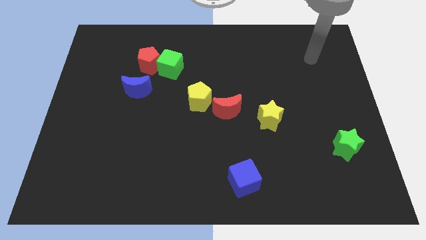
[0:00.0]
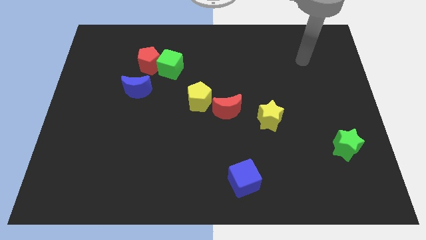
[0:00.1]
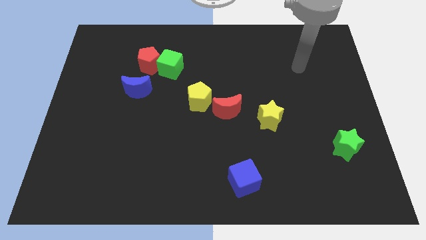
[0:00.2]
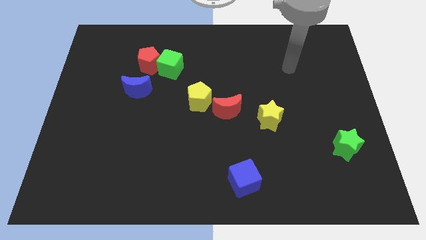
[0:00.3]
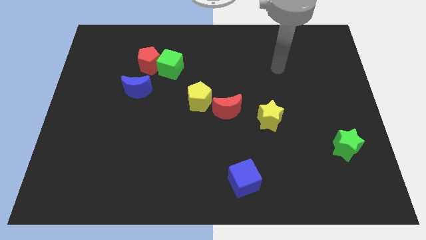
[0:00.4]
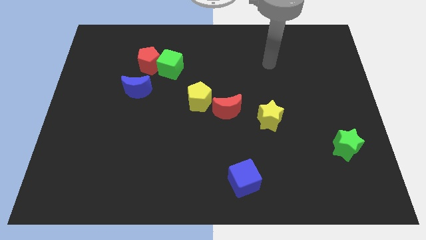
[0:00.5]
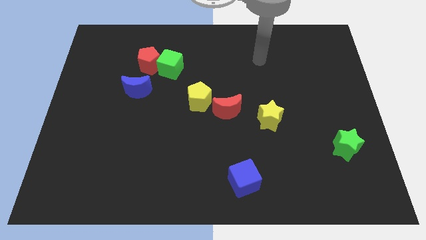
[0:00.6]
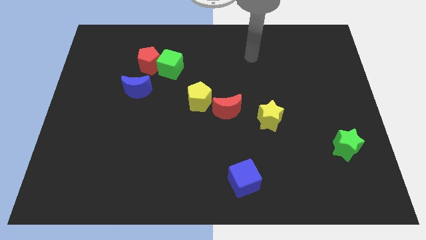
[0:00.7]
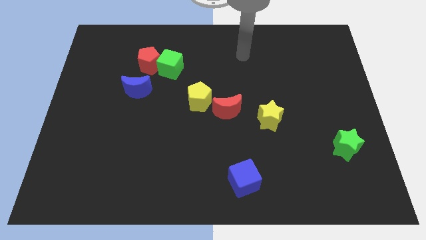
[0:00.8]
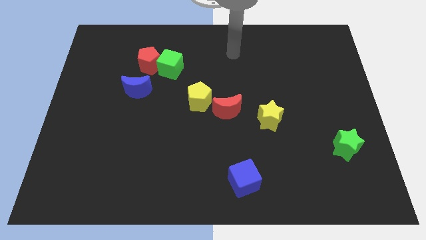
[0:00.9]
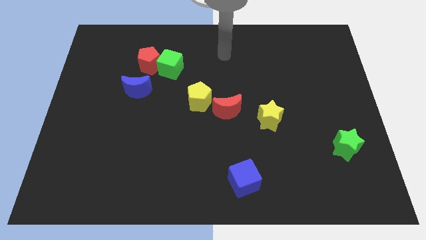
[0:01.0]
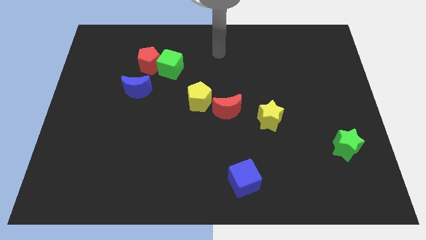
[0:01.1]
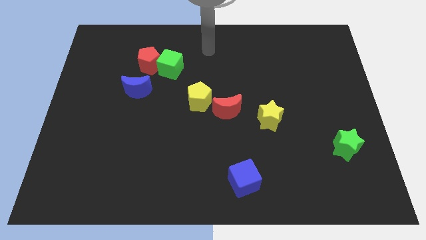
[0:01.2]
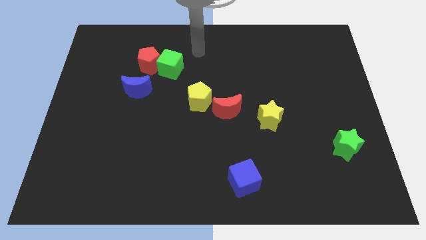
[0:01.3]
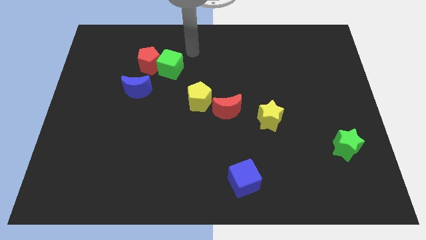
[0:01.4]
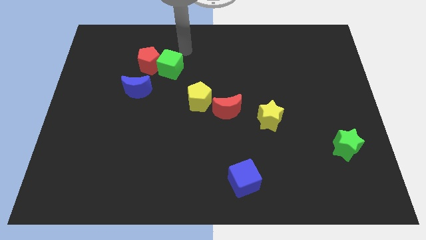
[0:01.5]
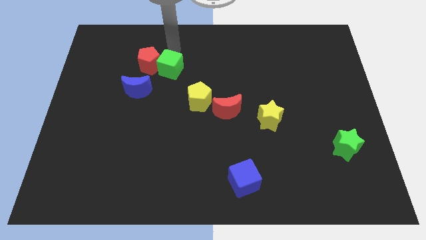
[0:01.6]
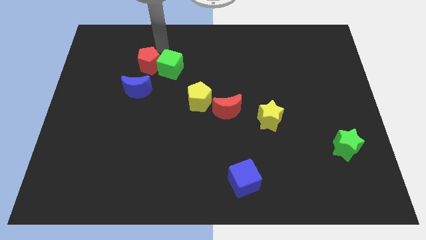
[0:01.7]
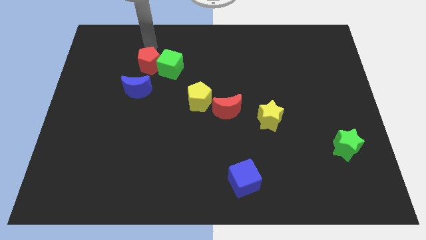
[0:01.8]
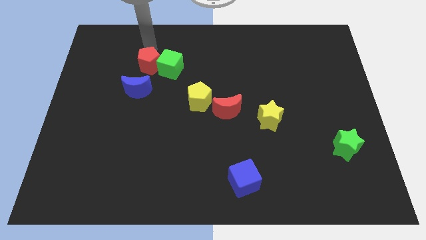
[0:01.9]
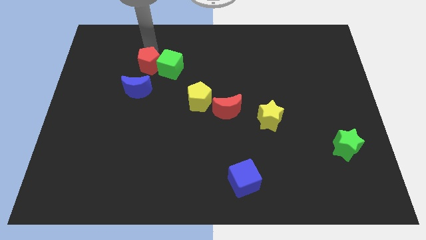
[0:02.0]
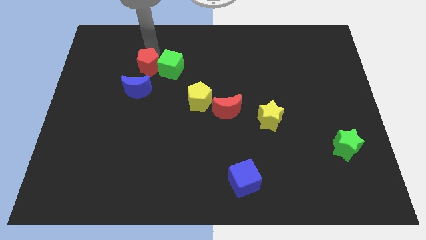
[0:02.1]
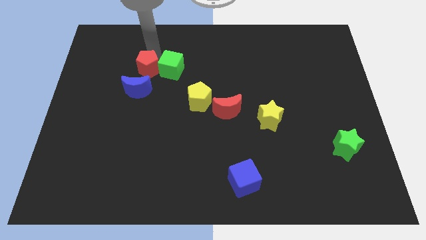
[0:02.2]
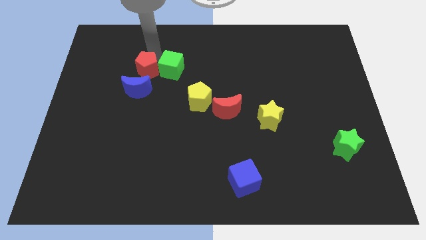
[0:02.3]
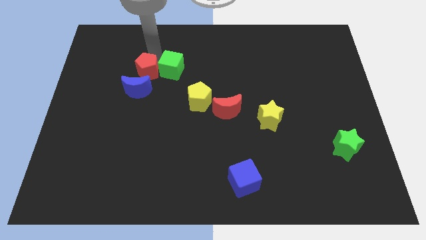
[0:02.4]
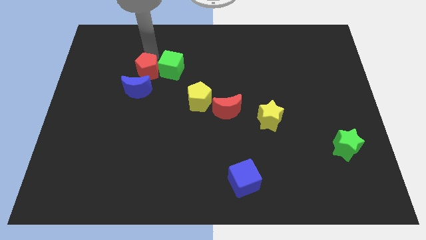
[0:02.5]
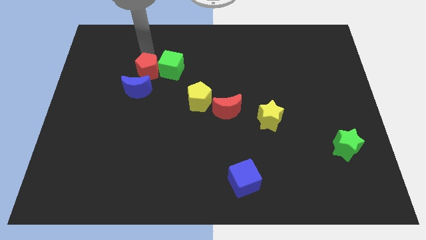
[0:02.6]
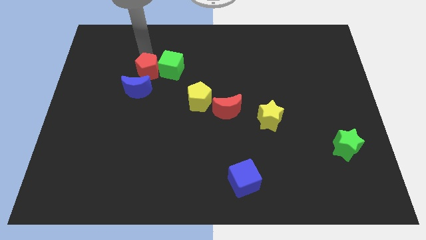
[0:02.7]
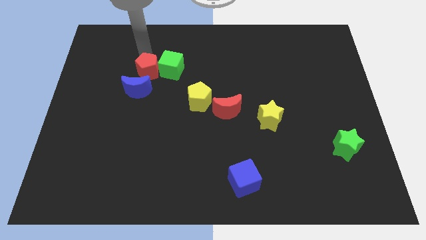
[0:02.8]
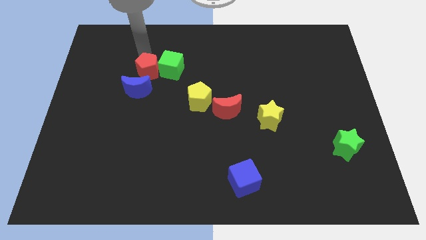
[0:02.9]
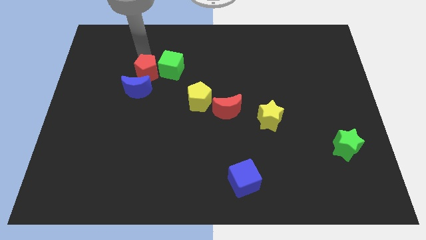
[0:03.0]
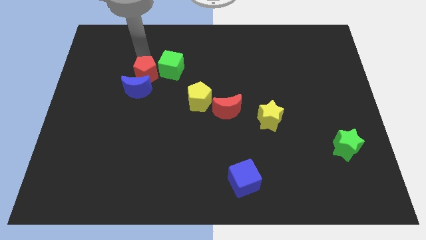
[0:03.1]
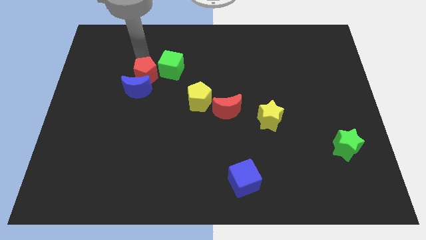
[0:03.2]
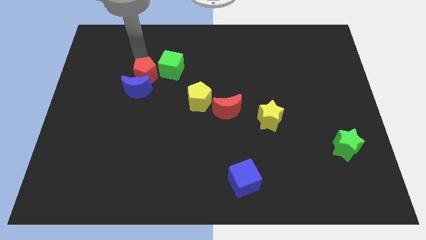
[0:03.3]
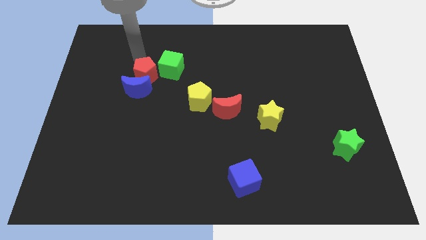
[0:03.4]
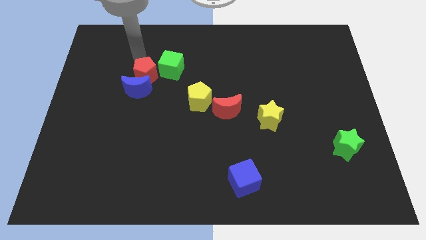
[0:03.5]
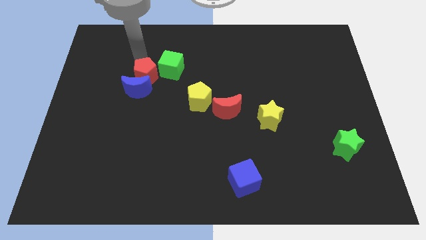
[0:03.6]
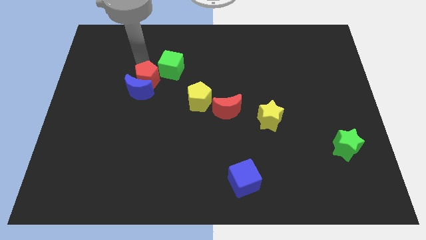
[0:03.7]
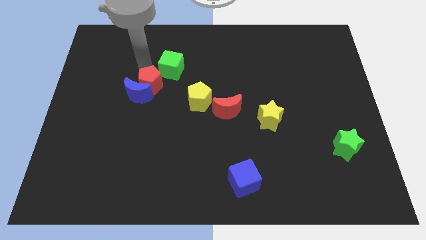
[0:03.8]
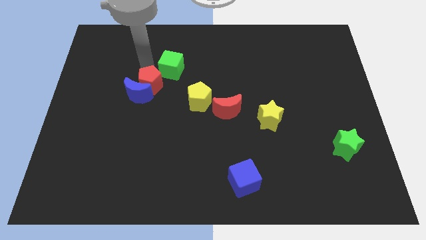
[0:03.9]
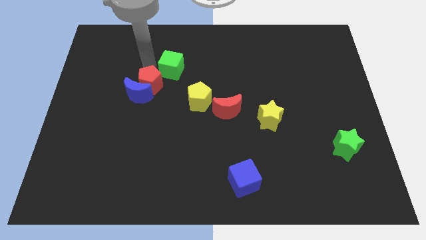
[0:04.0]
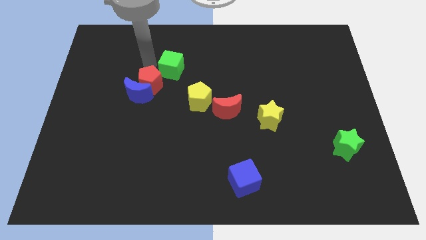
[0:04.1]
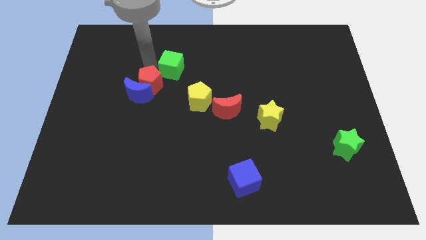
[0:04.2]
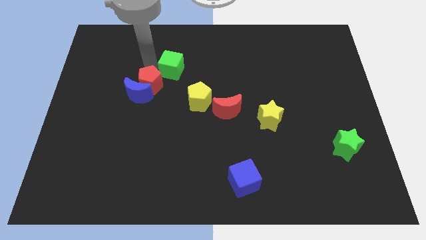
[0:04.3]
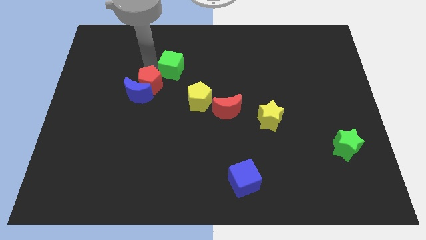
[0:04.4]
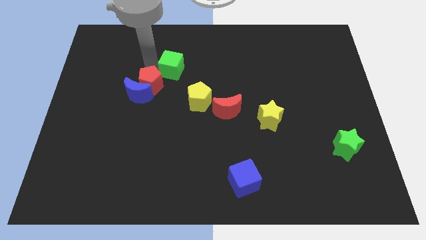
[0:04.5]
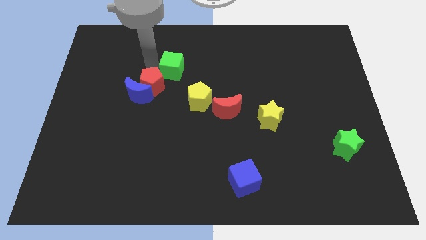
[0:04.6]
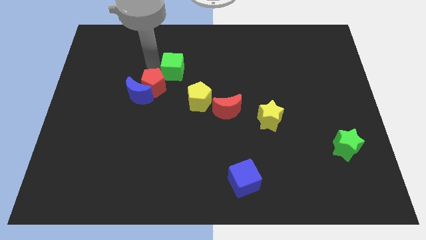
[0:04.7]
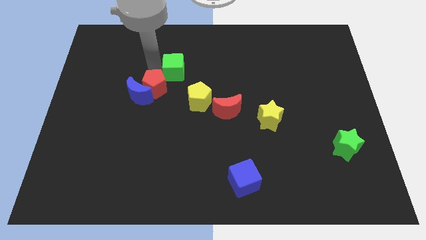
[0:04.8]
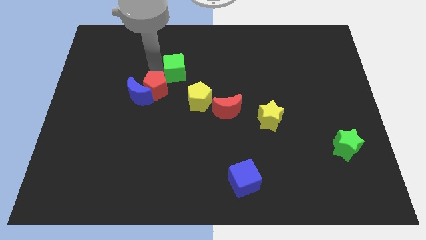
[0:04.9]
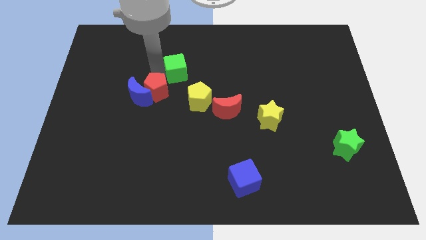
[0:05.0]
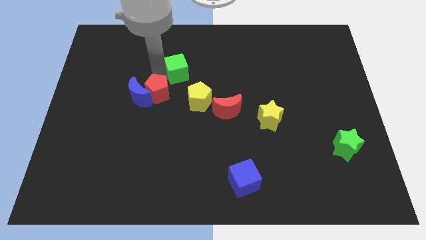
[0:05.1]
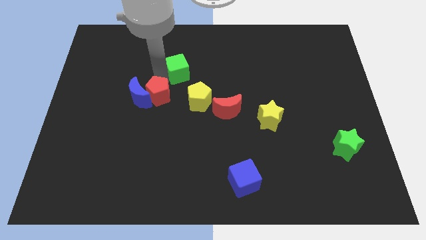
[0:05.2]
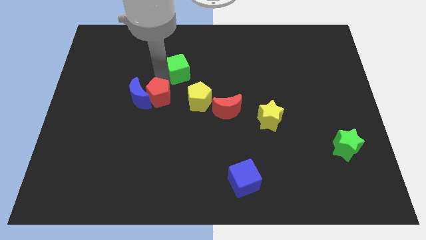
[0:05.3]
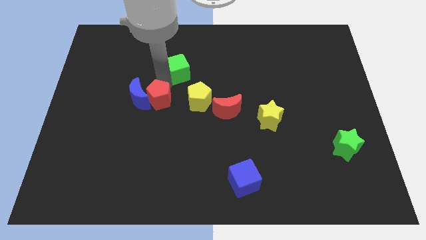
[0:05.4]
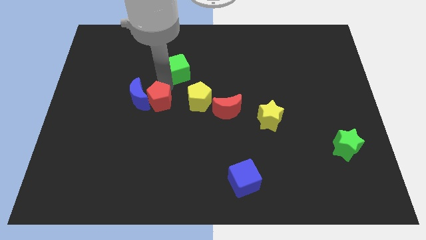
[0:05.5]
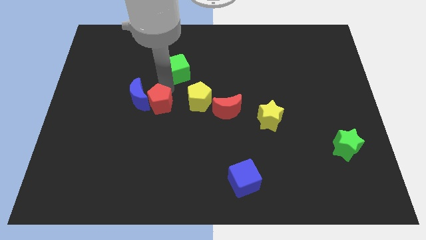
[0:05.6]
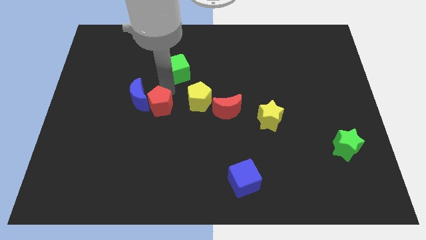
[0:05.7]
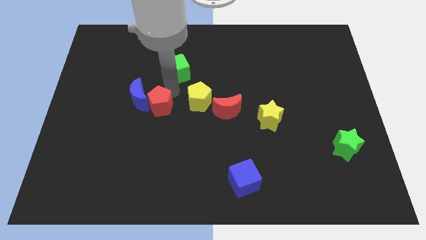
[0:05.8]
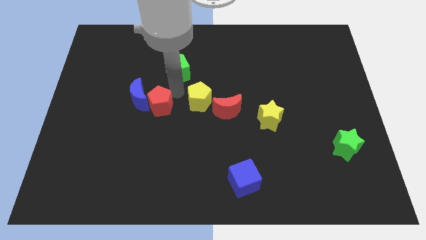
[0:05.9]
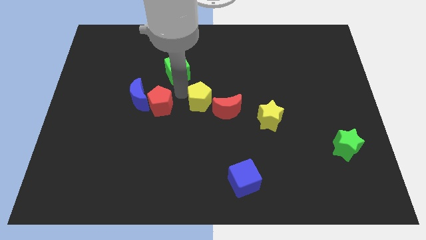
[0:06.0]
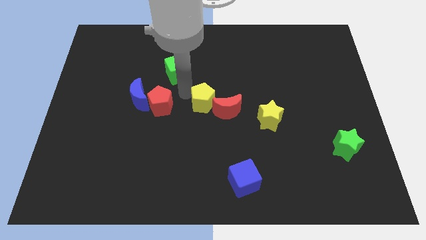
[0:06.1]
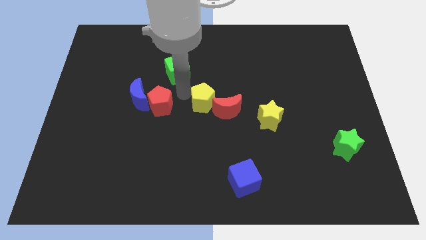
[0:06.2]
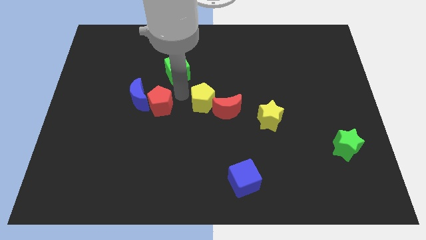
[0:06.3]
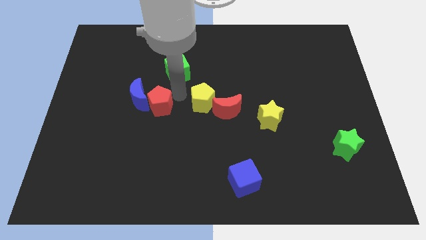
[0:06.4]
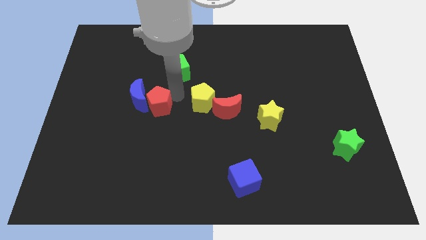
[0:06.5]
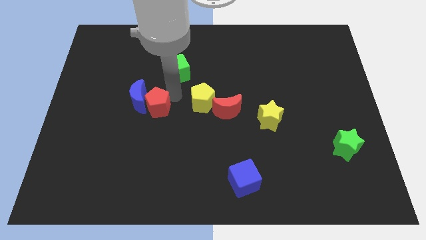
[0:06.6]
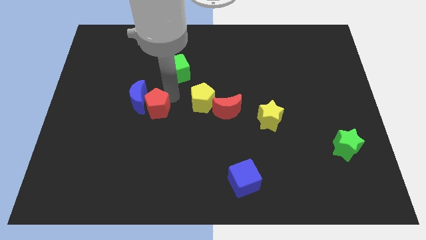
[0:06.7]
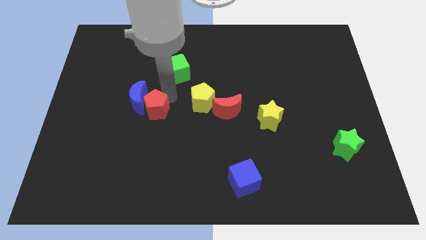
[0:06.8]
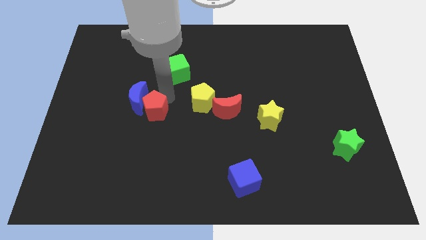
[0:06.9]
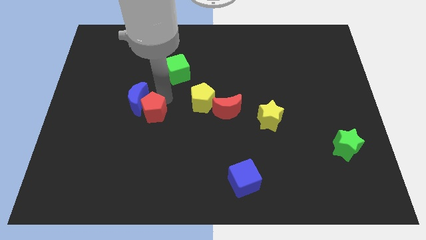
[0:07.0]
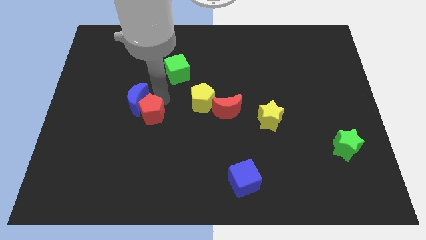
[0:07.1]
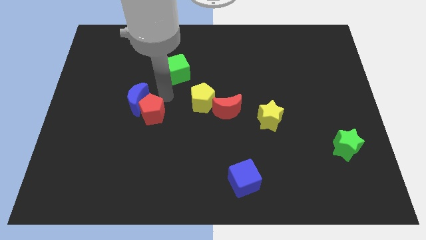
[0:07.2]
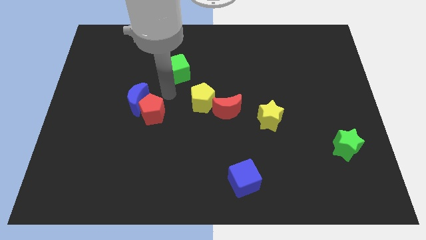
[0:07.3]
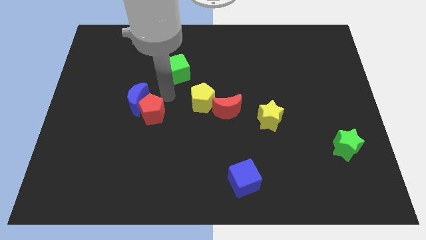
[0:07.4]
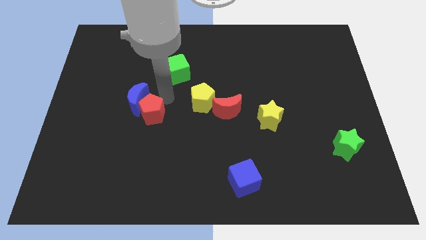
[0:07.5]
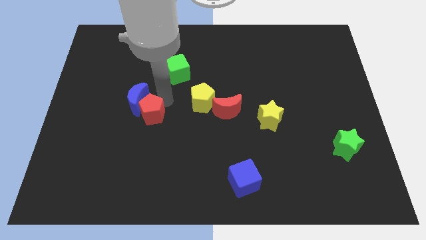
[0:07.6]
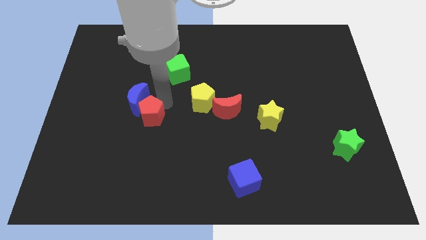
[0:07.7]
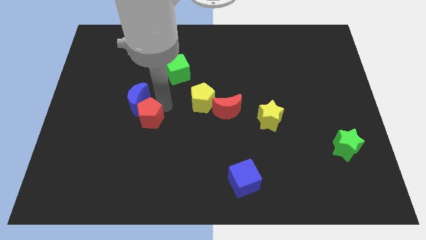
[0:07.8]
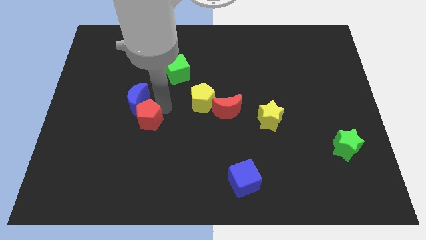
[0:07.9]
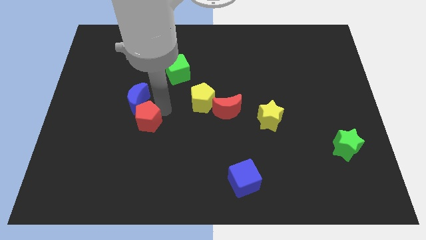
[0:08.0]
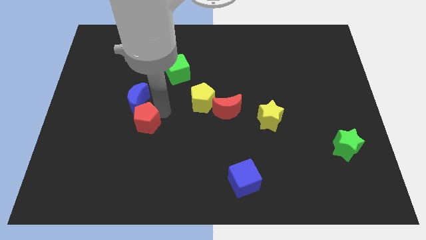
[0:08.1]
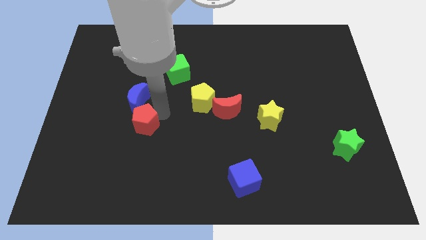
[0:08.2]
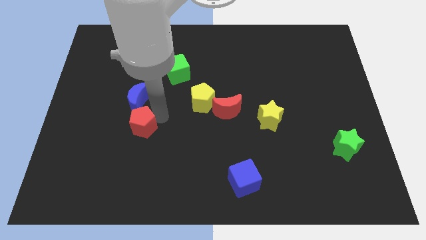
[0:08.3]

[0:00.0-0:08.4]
push the red pentagon down

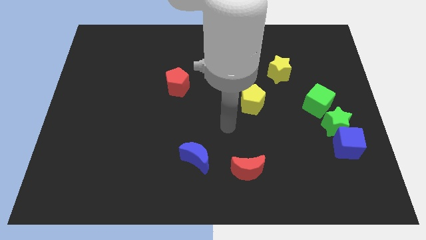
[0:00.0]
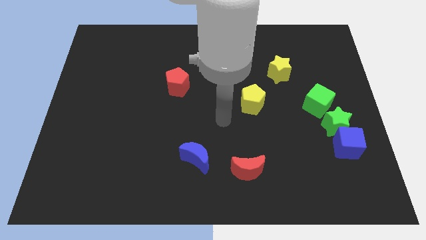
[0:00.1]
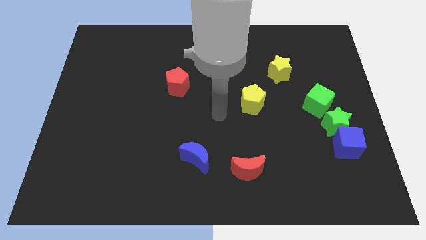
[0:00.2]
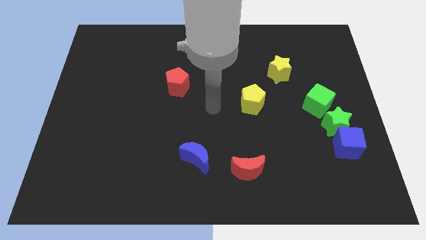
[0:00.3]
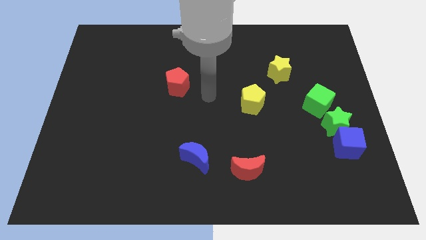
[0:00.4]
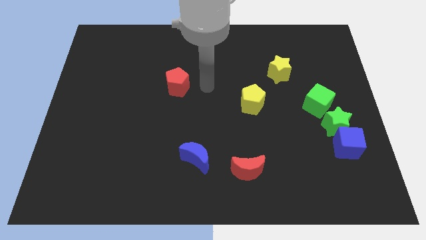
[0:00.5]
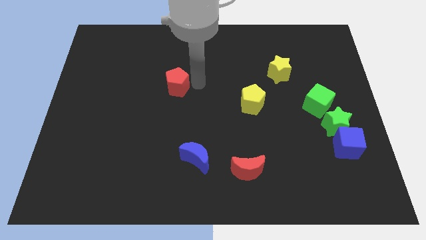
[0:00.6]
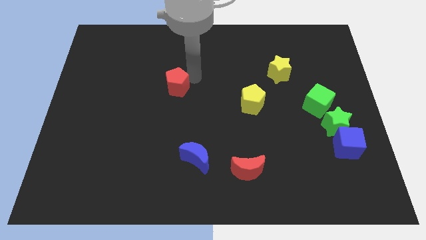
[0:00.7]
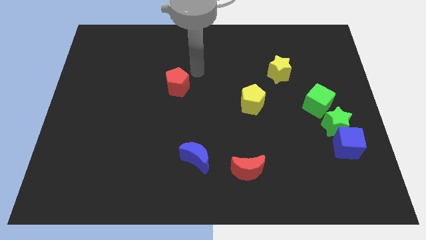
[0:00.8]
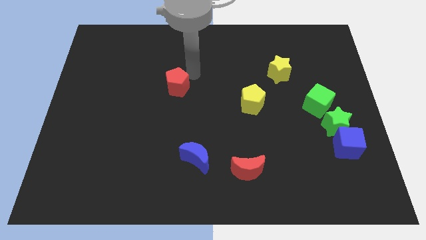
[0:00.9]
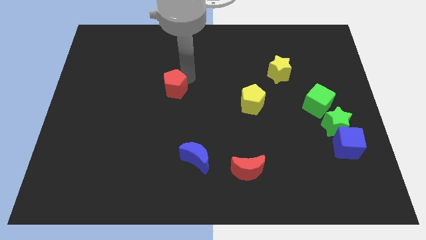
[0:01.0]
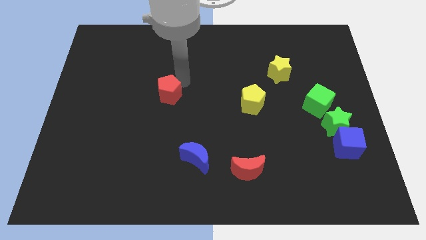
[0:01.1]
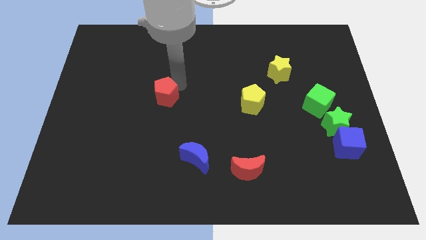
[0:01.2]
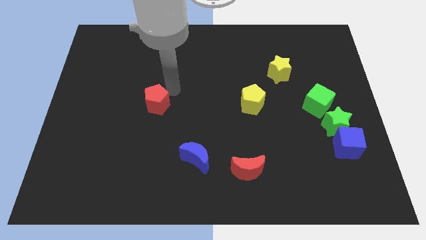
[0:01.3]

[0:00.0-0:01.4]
push the red pentagon down and then left somewhat
